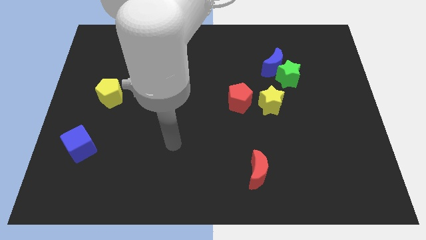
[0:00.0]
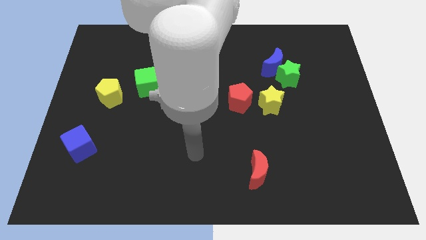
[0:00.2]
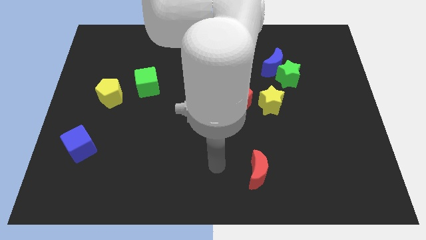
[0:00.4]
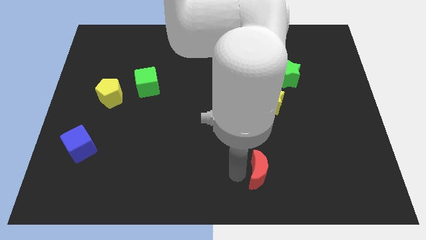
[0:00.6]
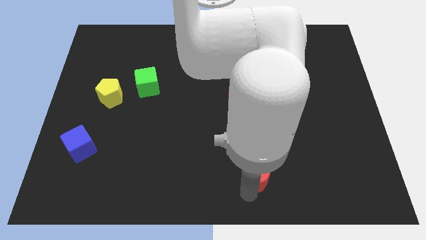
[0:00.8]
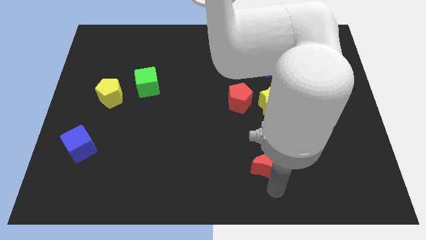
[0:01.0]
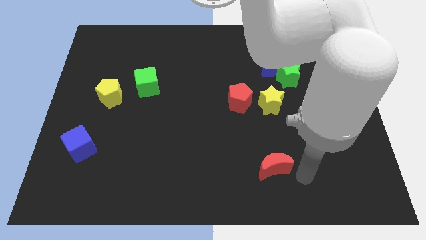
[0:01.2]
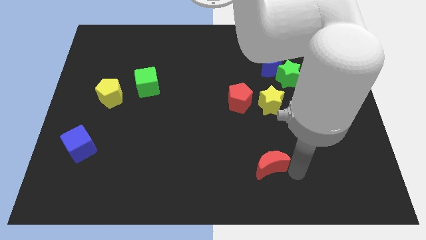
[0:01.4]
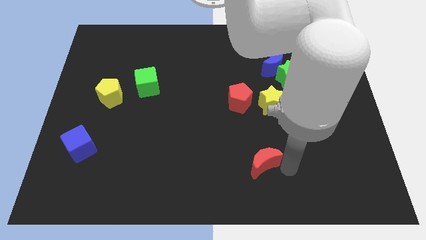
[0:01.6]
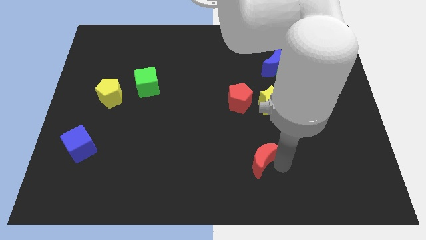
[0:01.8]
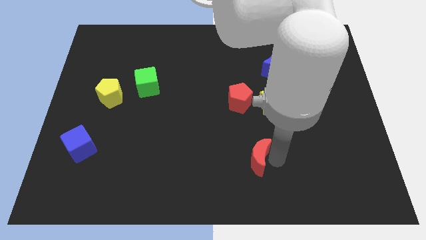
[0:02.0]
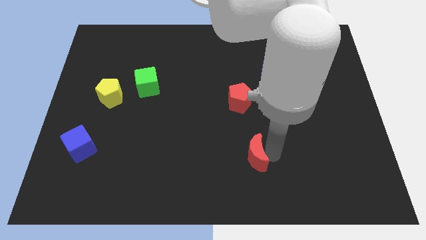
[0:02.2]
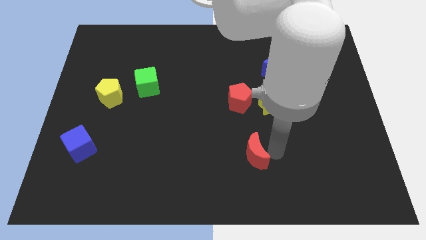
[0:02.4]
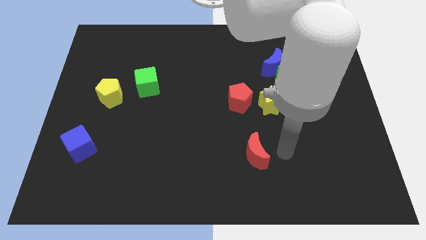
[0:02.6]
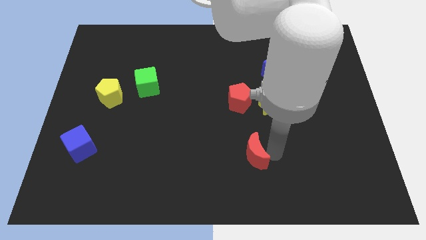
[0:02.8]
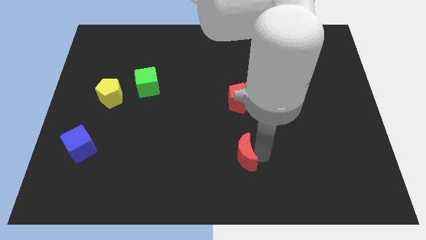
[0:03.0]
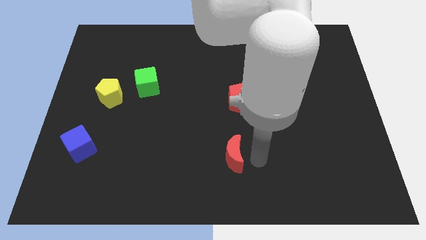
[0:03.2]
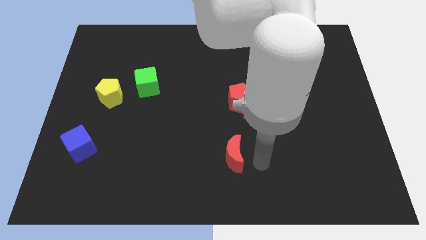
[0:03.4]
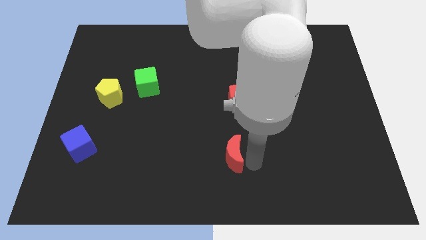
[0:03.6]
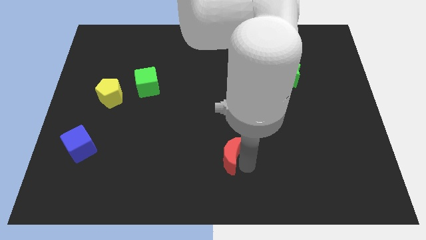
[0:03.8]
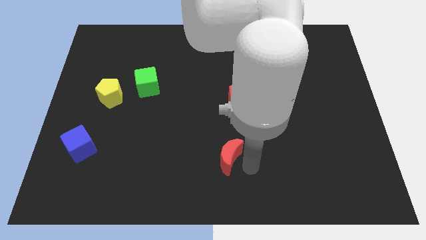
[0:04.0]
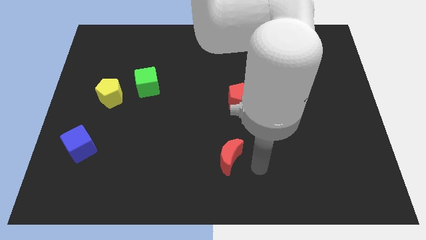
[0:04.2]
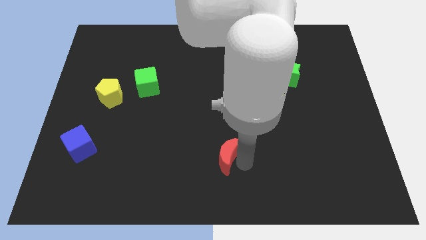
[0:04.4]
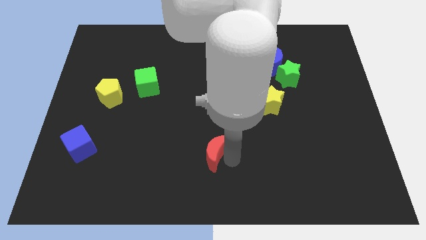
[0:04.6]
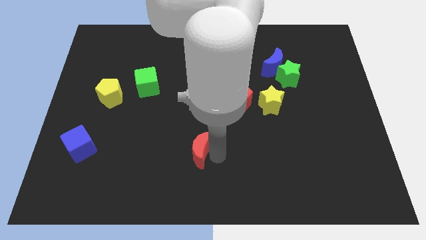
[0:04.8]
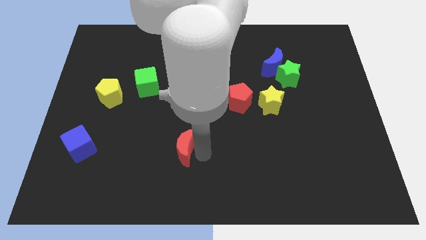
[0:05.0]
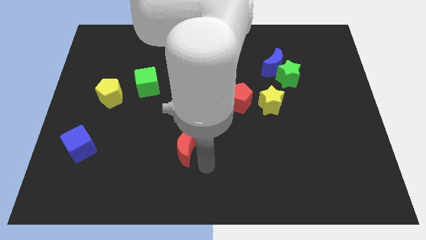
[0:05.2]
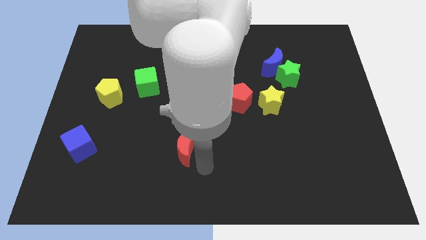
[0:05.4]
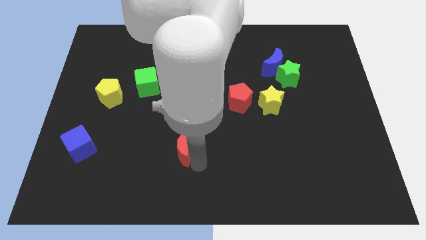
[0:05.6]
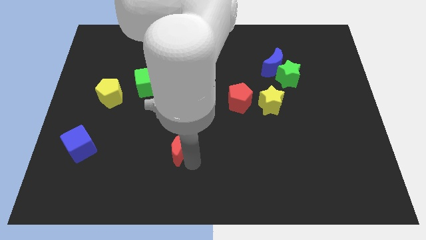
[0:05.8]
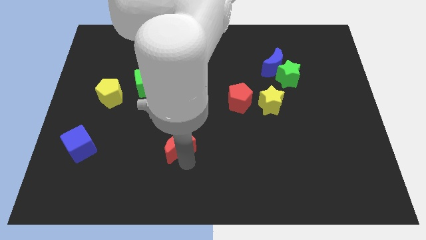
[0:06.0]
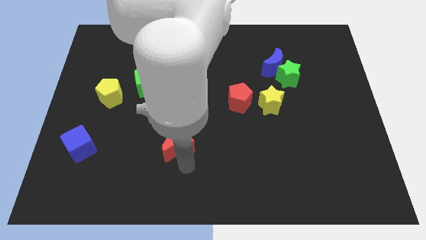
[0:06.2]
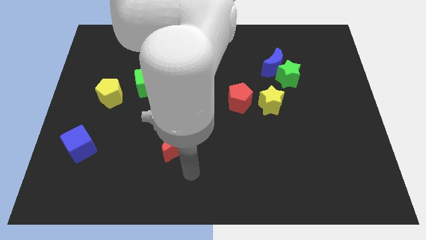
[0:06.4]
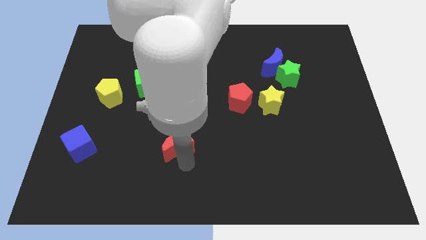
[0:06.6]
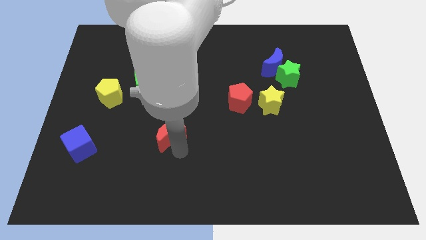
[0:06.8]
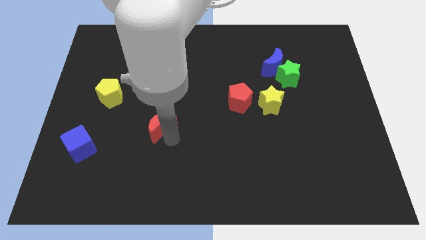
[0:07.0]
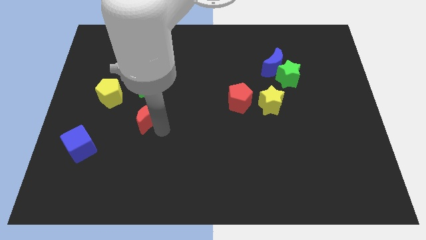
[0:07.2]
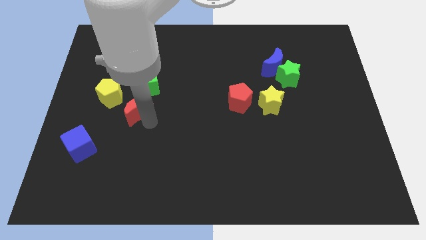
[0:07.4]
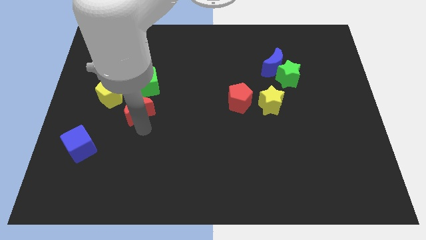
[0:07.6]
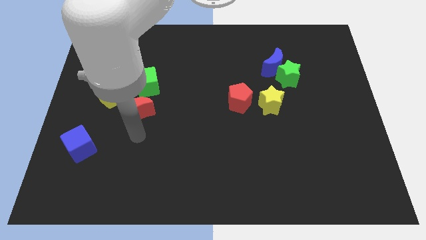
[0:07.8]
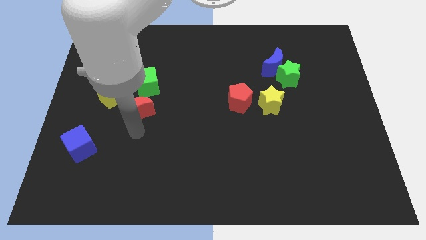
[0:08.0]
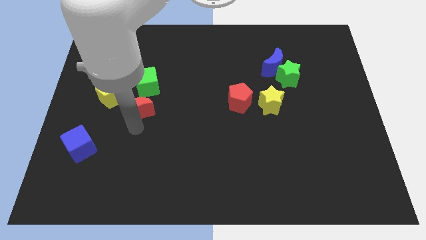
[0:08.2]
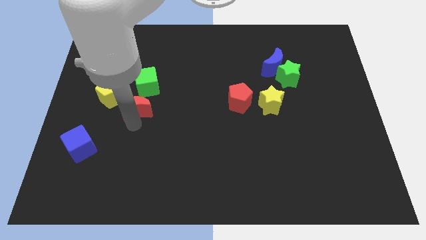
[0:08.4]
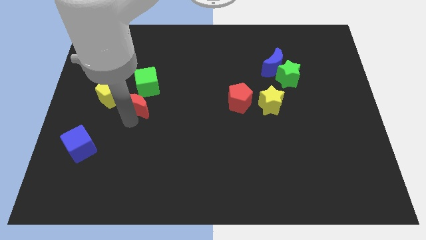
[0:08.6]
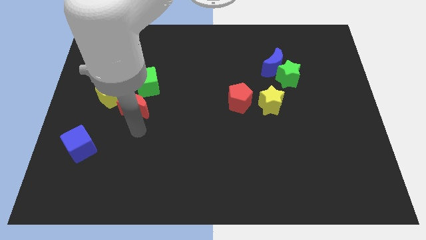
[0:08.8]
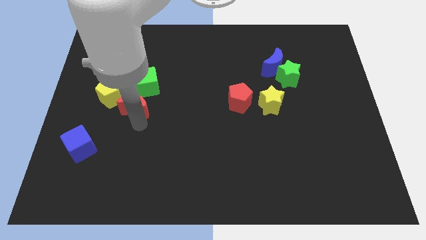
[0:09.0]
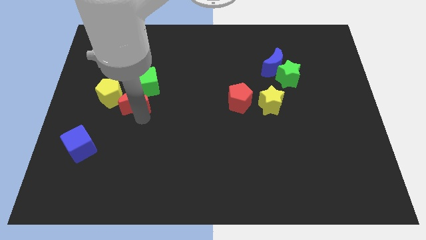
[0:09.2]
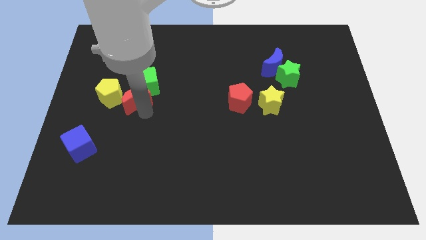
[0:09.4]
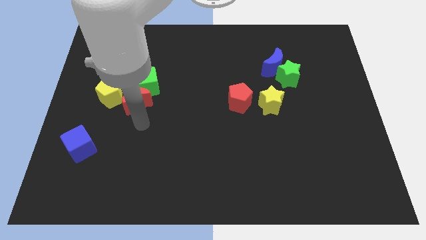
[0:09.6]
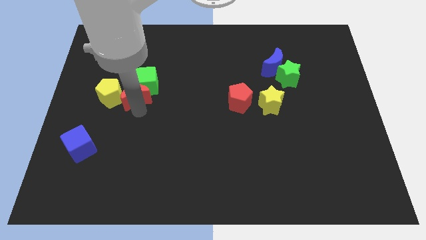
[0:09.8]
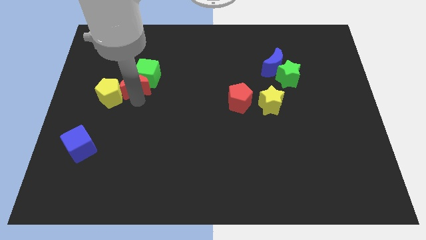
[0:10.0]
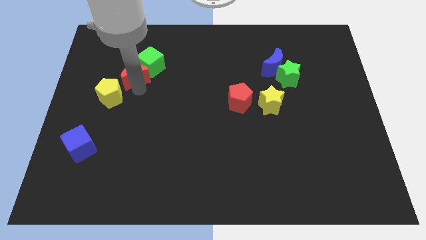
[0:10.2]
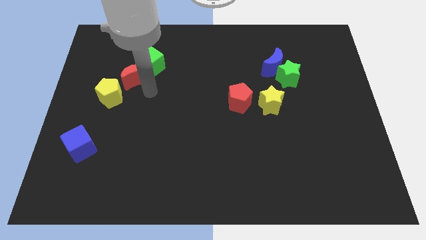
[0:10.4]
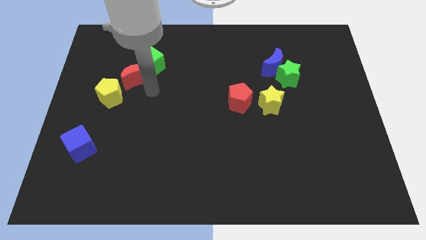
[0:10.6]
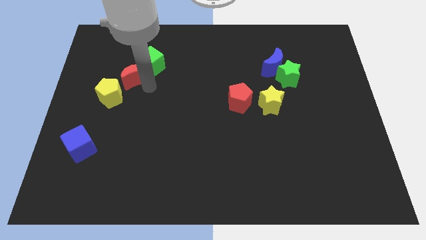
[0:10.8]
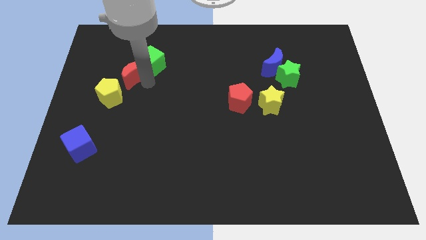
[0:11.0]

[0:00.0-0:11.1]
slide the red moon to the top side of the yellow pentagon

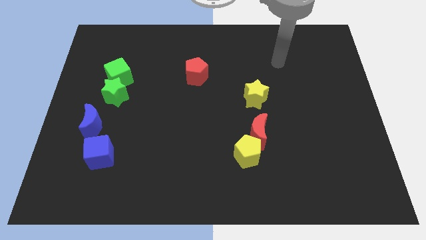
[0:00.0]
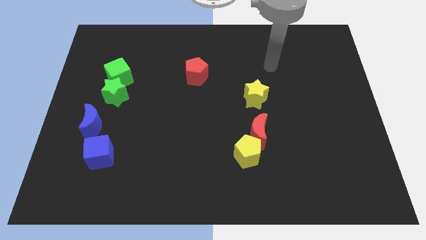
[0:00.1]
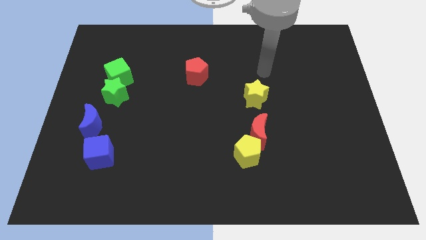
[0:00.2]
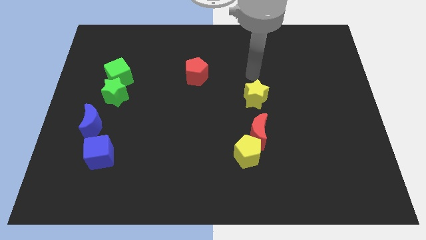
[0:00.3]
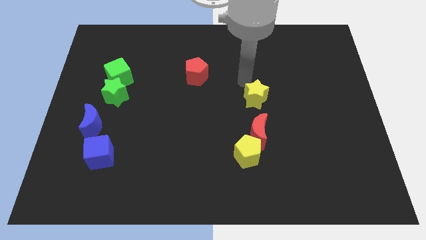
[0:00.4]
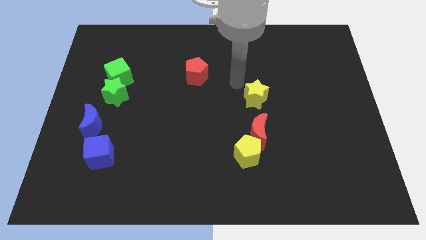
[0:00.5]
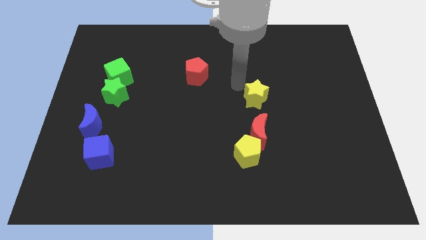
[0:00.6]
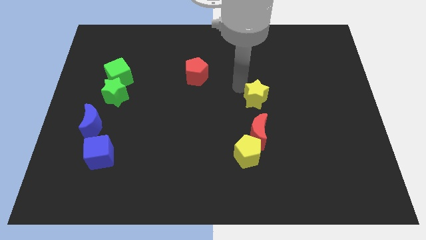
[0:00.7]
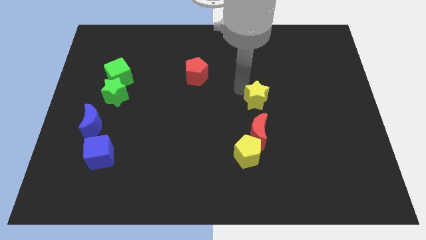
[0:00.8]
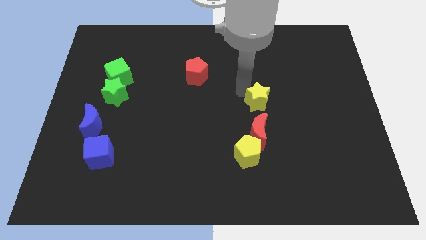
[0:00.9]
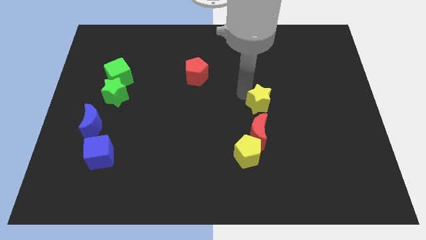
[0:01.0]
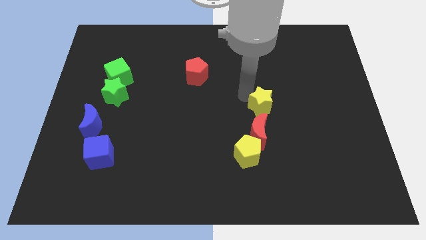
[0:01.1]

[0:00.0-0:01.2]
slide the yellow star to the top right of the red moon
